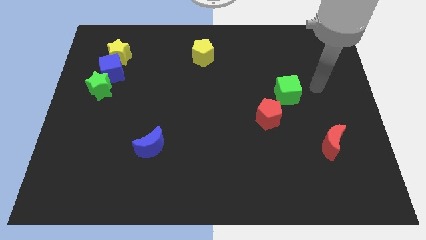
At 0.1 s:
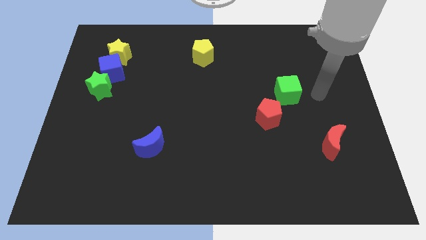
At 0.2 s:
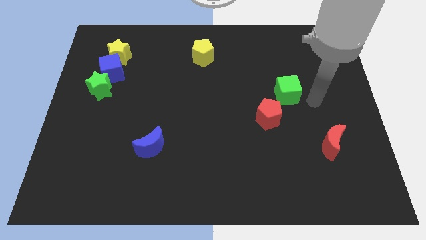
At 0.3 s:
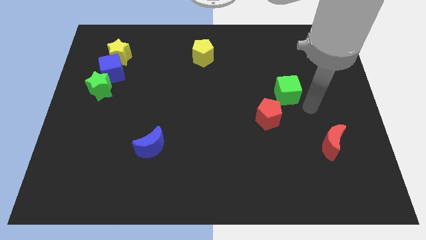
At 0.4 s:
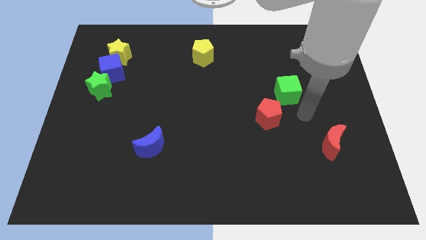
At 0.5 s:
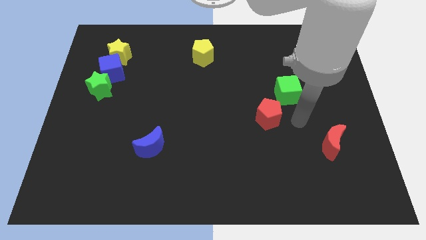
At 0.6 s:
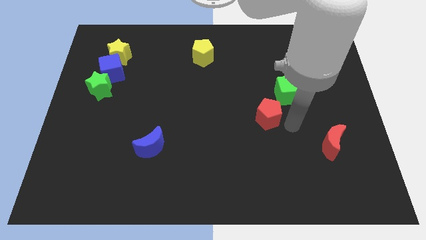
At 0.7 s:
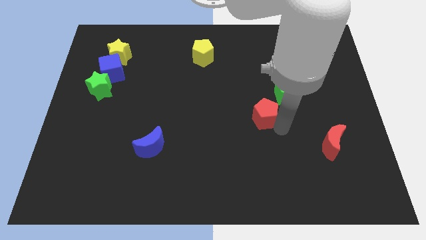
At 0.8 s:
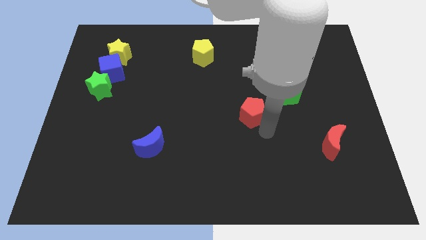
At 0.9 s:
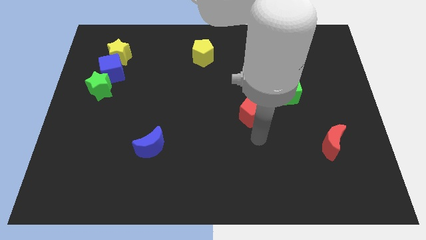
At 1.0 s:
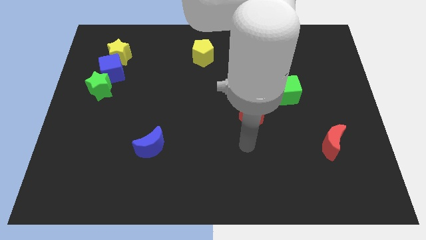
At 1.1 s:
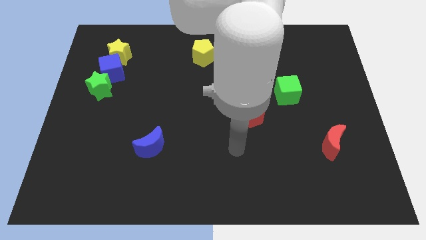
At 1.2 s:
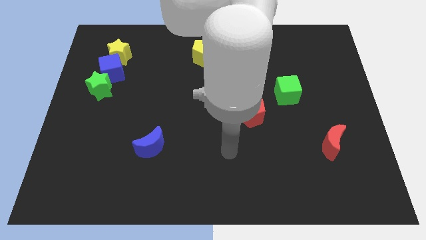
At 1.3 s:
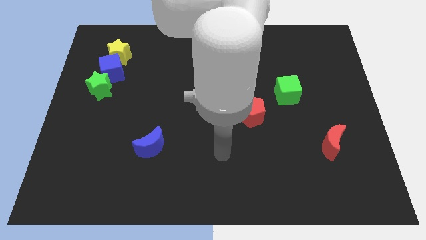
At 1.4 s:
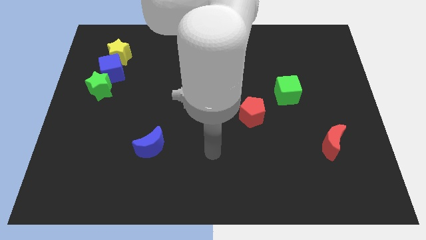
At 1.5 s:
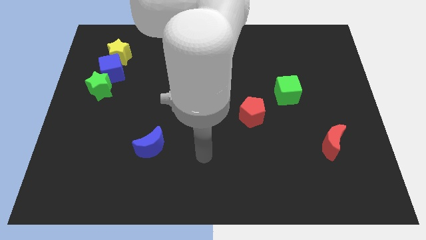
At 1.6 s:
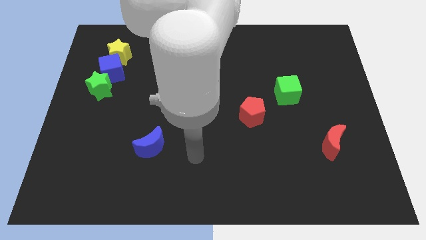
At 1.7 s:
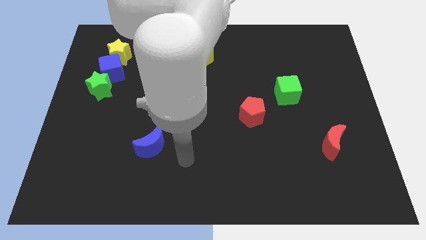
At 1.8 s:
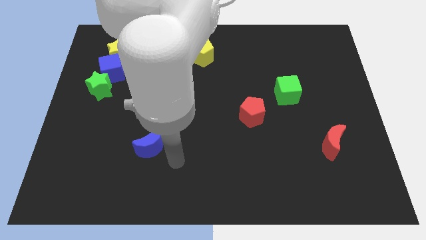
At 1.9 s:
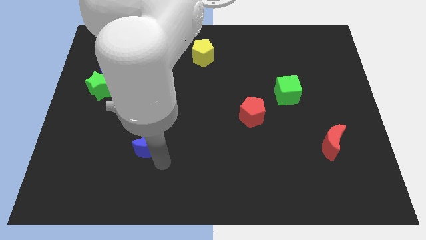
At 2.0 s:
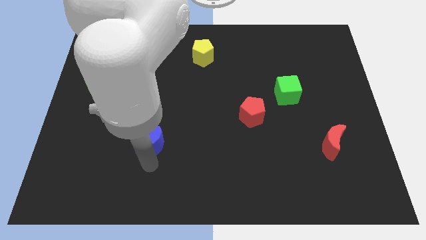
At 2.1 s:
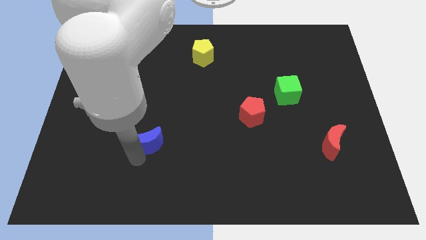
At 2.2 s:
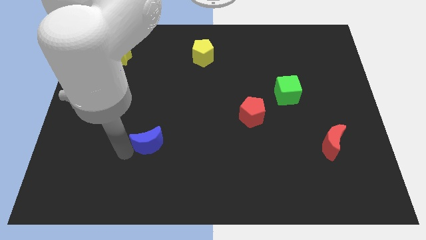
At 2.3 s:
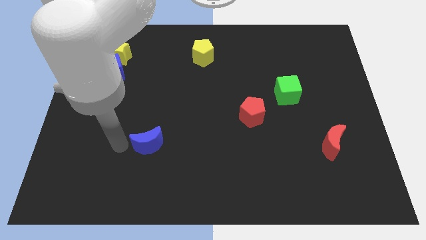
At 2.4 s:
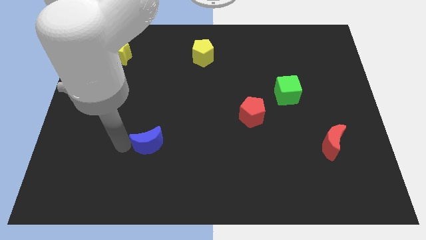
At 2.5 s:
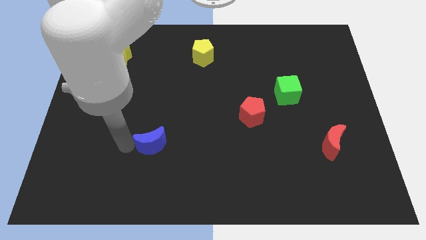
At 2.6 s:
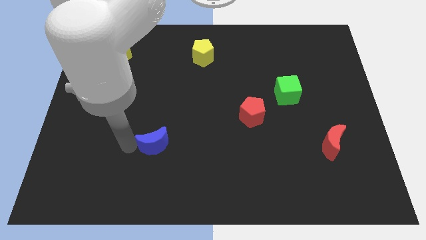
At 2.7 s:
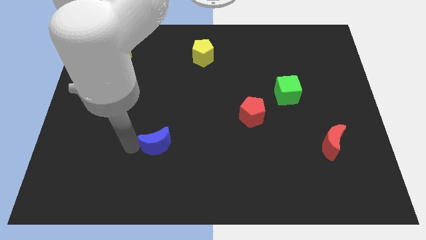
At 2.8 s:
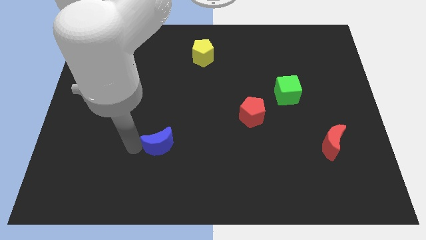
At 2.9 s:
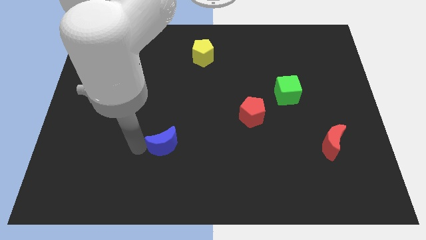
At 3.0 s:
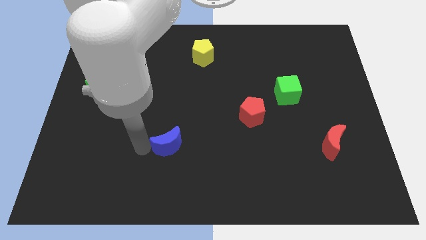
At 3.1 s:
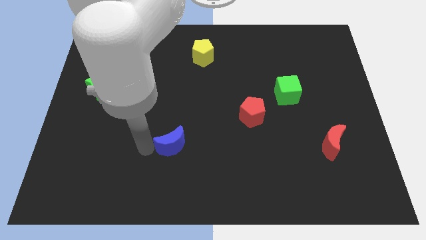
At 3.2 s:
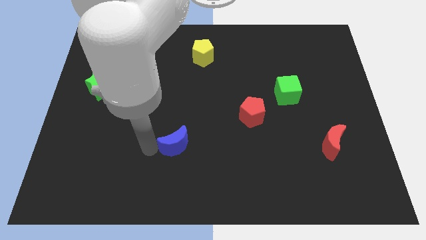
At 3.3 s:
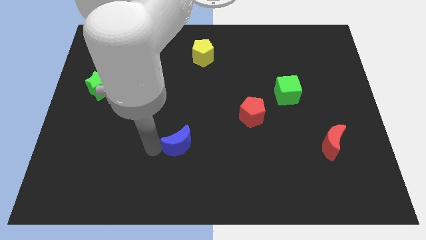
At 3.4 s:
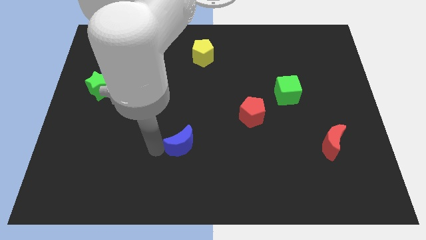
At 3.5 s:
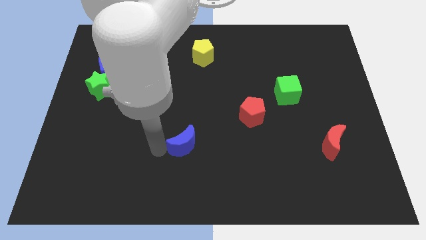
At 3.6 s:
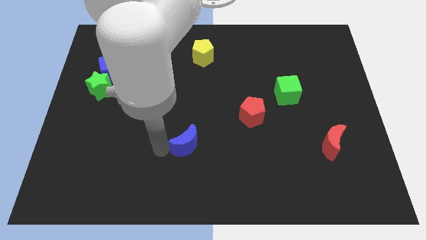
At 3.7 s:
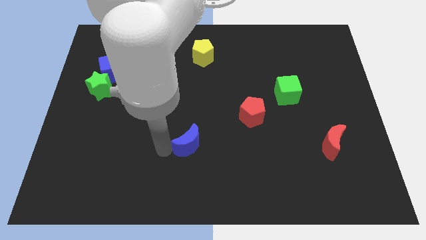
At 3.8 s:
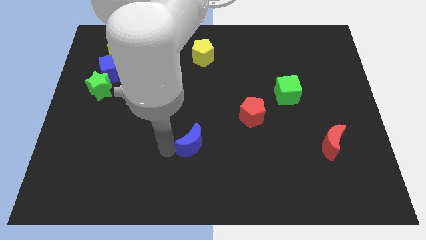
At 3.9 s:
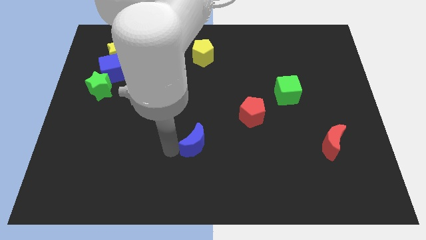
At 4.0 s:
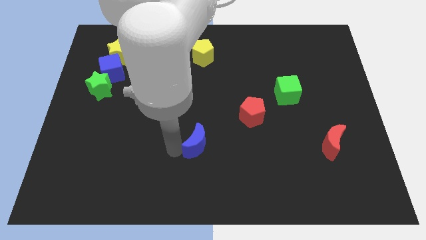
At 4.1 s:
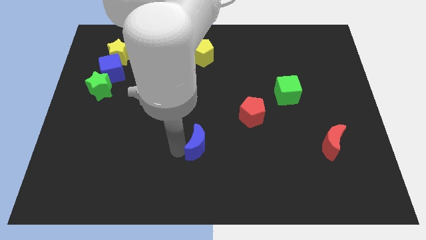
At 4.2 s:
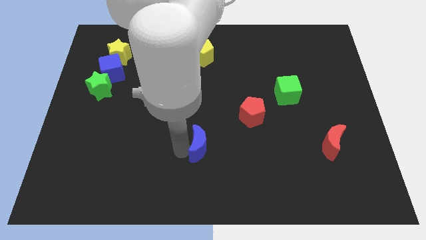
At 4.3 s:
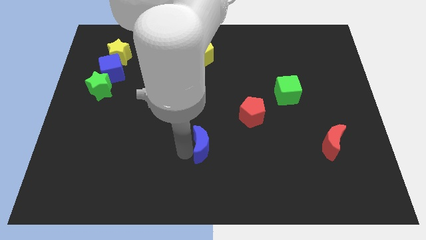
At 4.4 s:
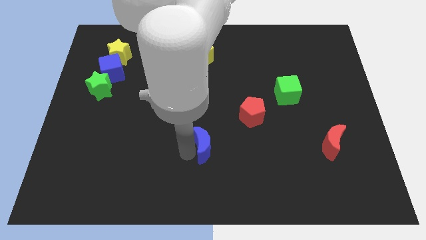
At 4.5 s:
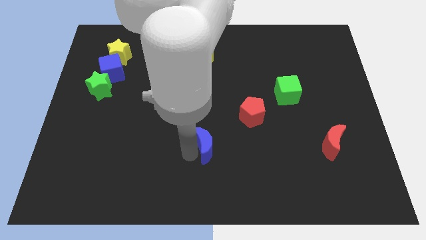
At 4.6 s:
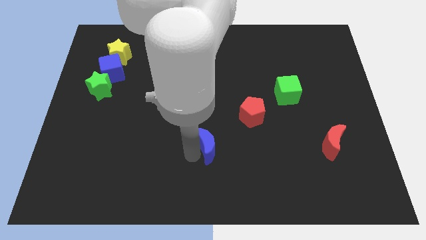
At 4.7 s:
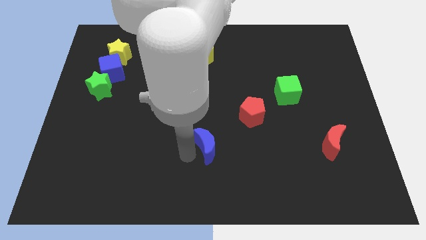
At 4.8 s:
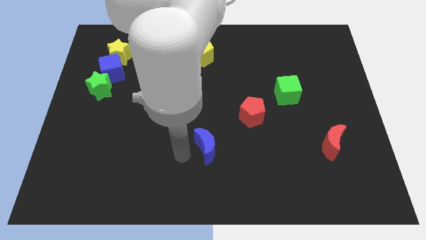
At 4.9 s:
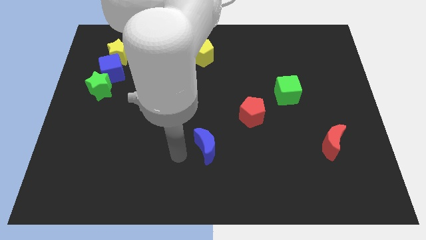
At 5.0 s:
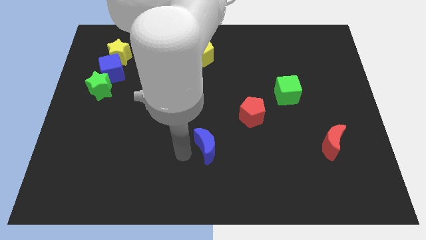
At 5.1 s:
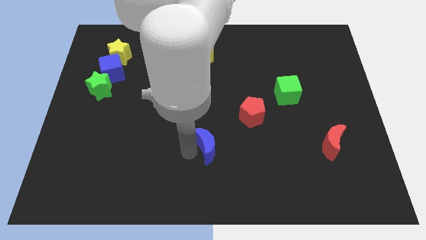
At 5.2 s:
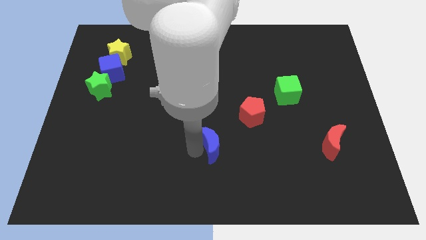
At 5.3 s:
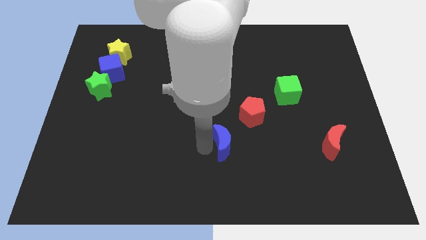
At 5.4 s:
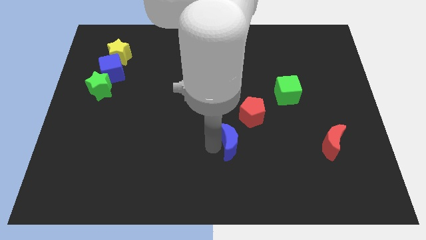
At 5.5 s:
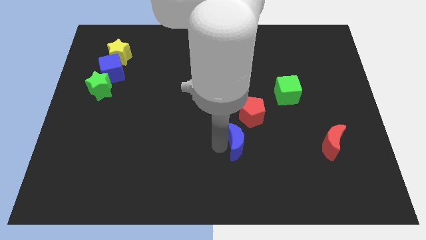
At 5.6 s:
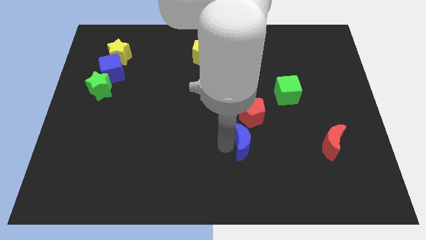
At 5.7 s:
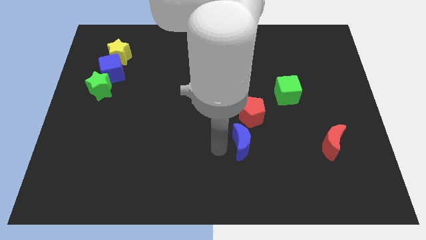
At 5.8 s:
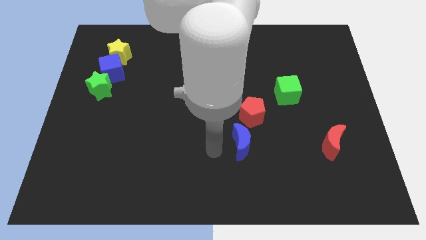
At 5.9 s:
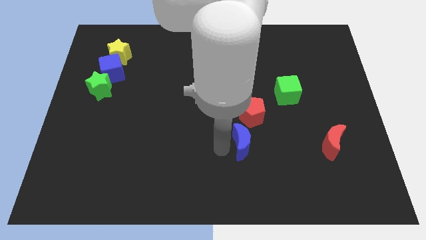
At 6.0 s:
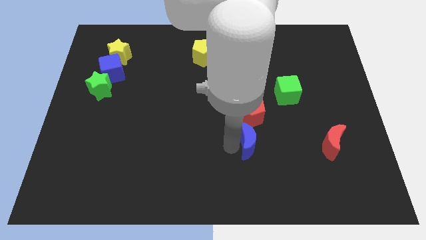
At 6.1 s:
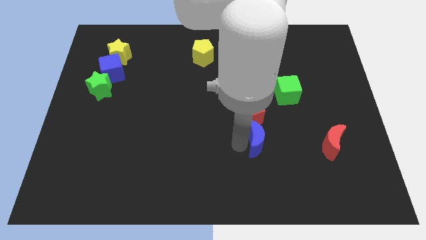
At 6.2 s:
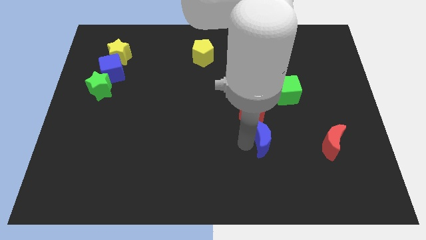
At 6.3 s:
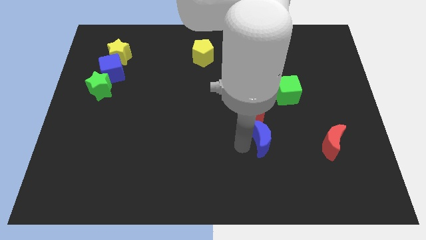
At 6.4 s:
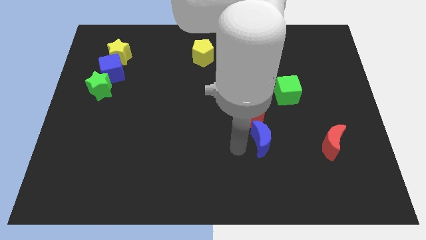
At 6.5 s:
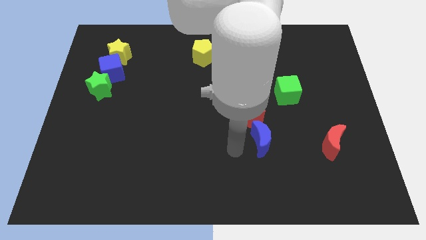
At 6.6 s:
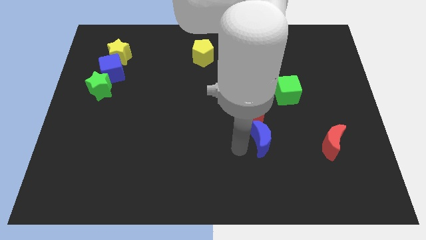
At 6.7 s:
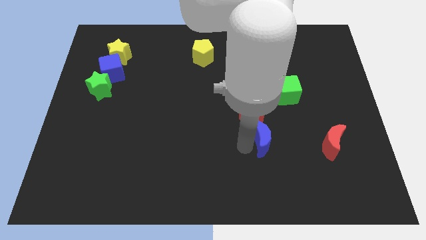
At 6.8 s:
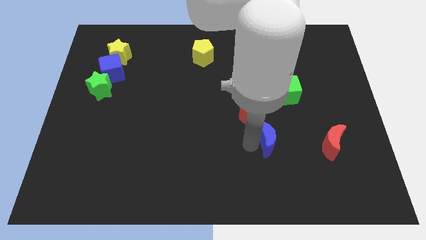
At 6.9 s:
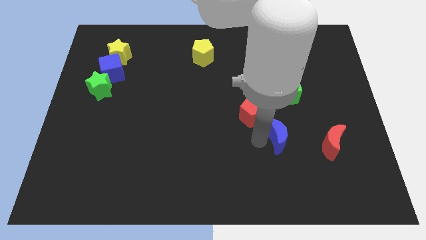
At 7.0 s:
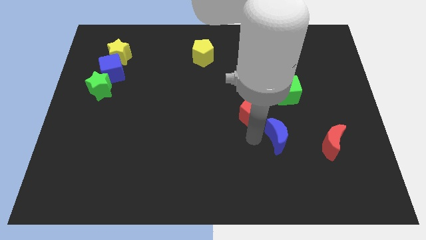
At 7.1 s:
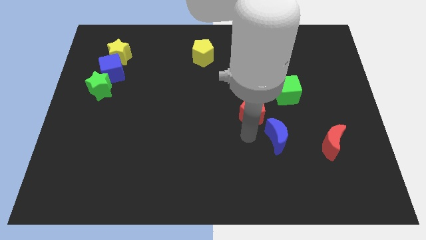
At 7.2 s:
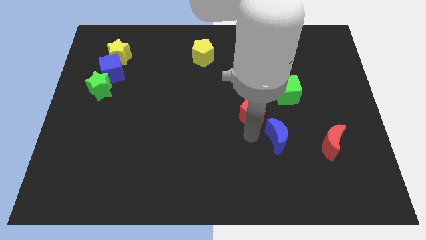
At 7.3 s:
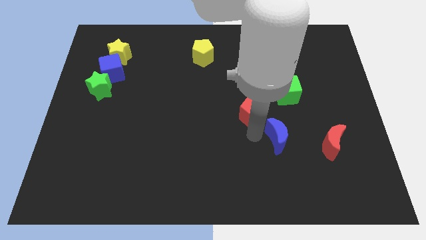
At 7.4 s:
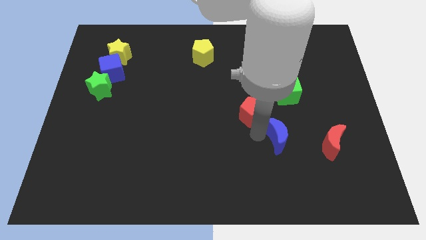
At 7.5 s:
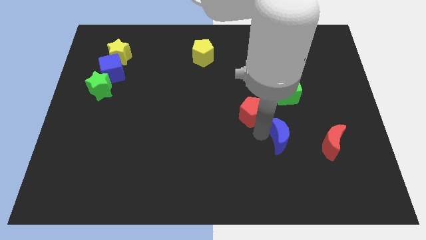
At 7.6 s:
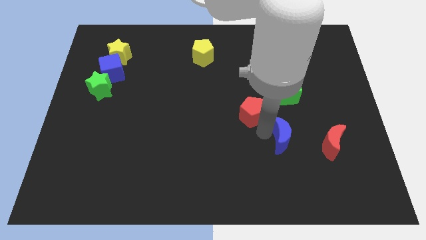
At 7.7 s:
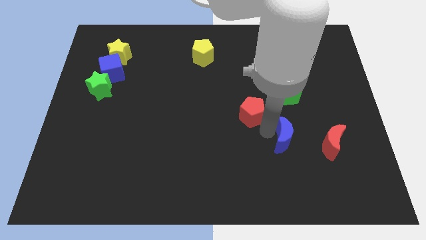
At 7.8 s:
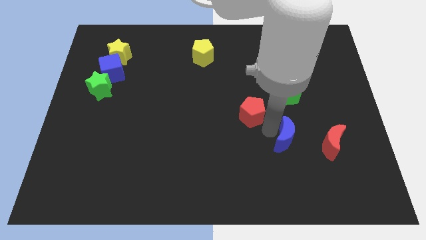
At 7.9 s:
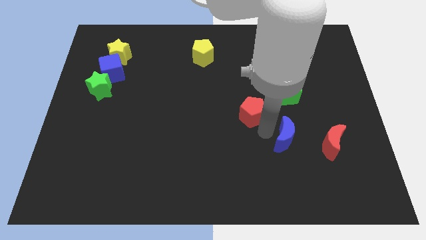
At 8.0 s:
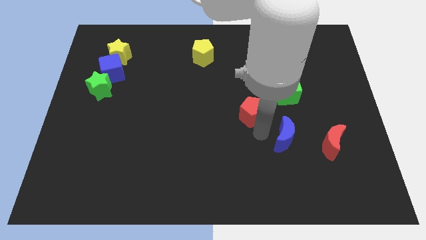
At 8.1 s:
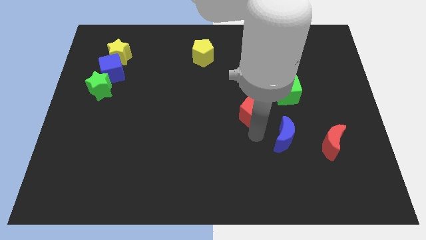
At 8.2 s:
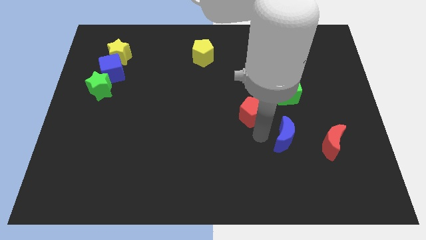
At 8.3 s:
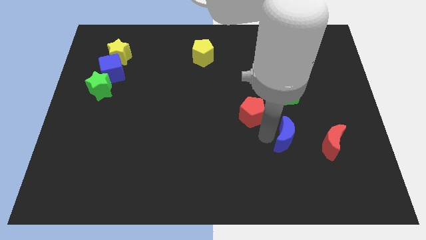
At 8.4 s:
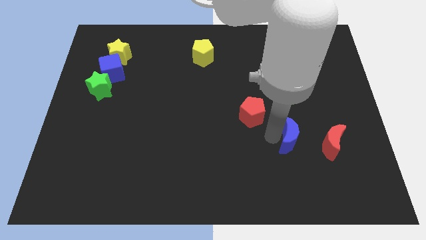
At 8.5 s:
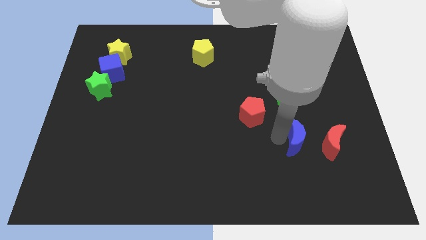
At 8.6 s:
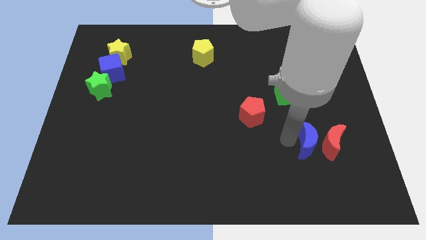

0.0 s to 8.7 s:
slide the blue moon towards the red moon
